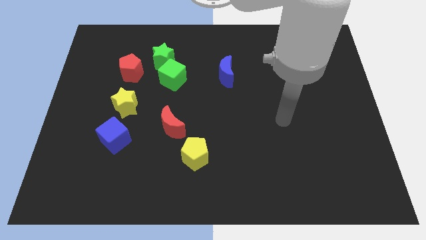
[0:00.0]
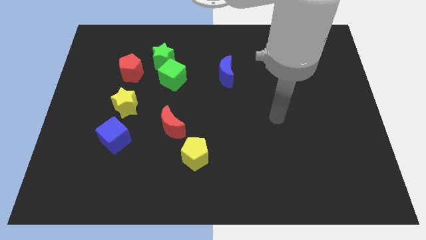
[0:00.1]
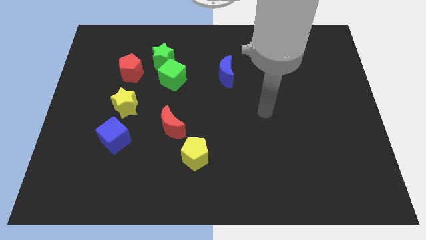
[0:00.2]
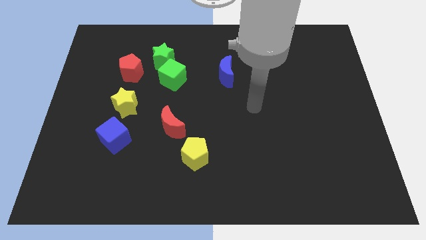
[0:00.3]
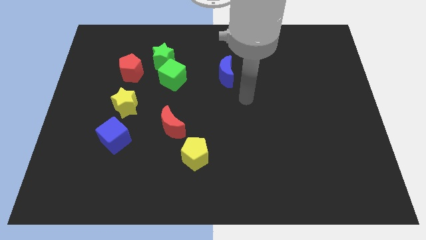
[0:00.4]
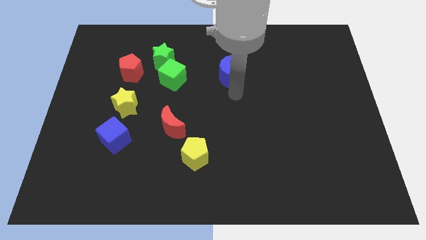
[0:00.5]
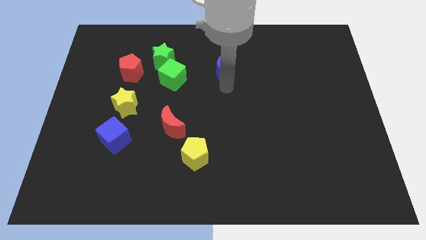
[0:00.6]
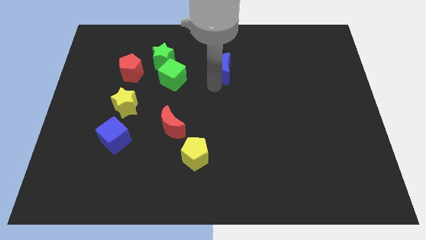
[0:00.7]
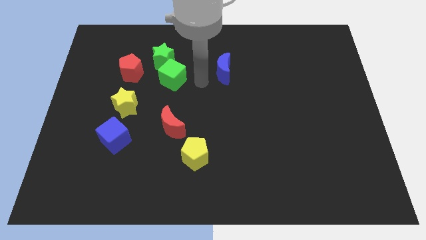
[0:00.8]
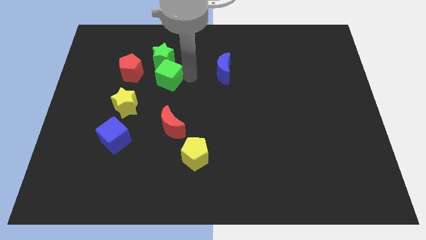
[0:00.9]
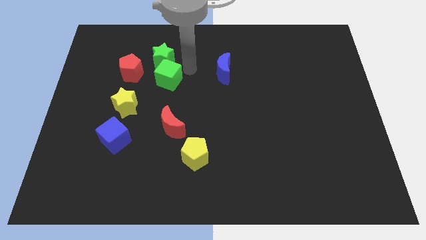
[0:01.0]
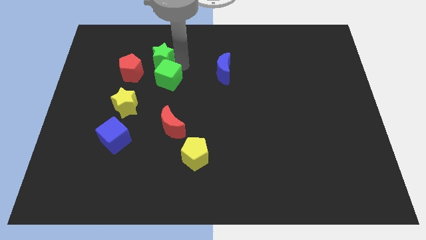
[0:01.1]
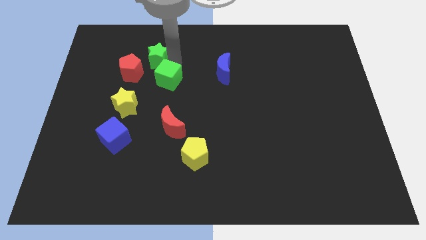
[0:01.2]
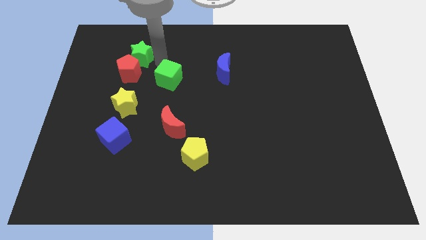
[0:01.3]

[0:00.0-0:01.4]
separate the green cube from the green star

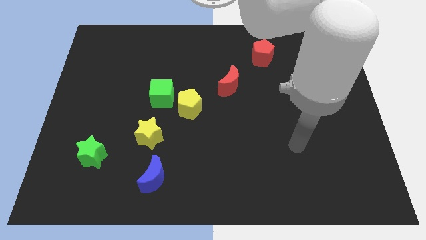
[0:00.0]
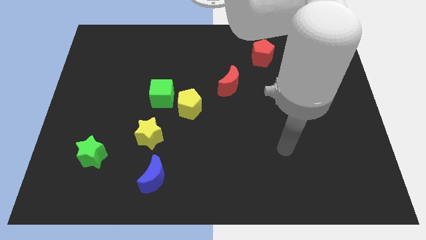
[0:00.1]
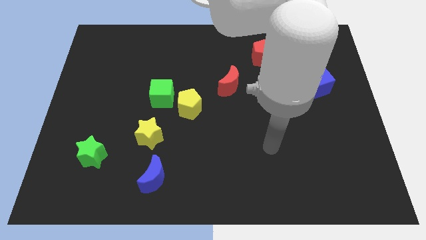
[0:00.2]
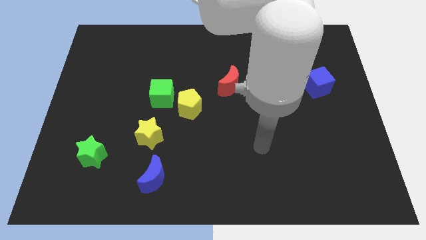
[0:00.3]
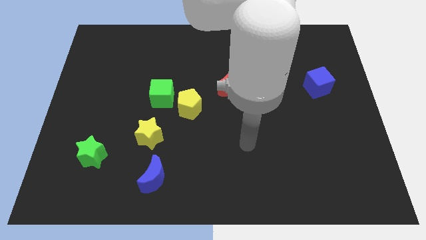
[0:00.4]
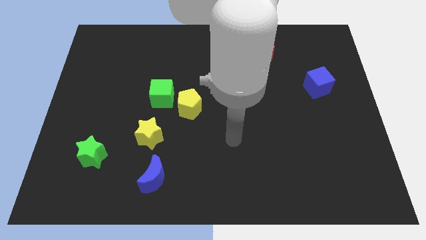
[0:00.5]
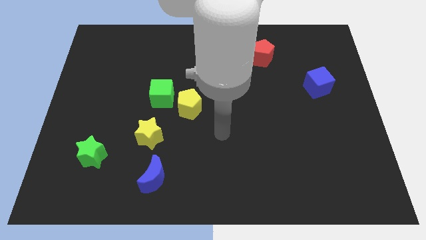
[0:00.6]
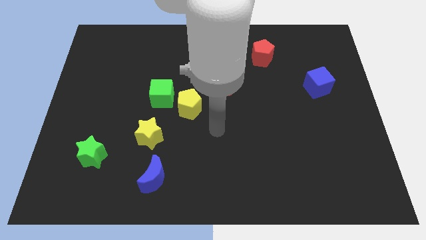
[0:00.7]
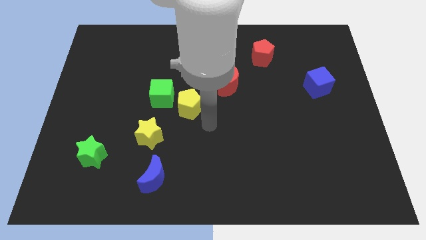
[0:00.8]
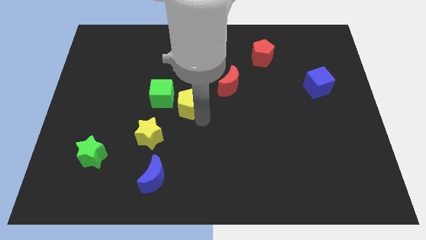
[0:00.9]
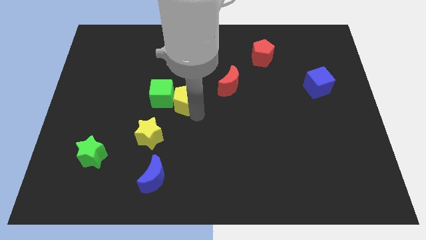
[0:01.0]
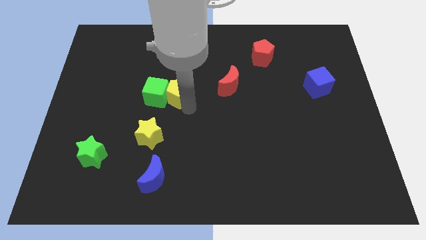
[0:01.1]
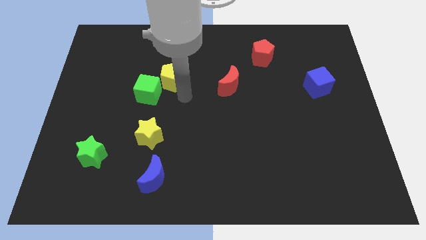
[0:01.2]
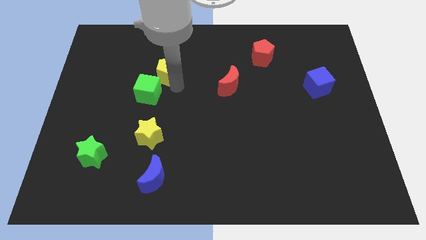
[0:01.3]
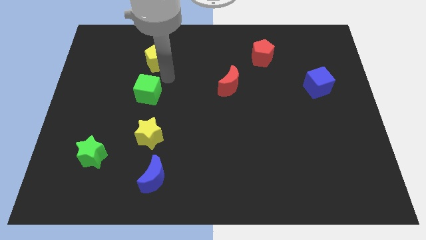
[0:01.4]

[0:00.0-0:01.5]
move the green cube away from the yellow pentagon

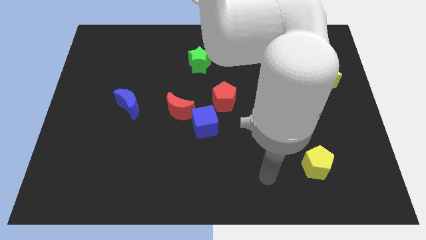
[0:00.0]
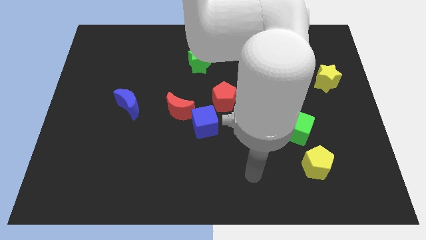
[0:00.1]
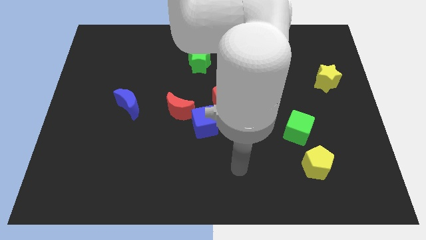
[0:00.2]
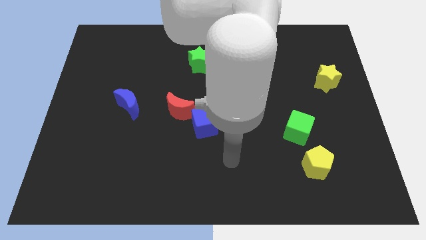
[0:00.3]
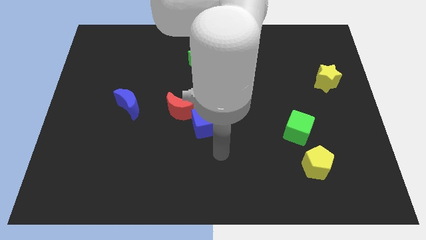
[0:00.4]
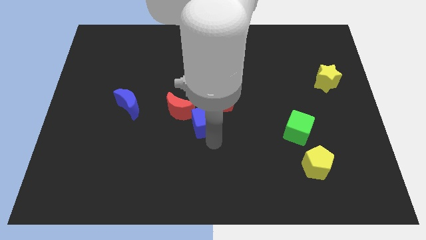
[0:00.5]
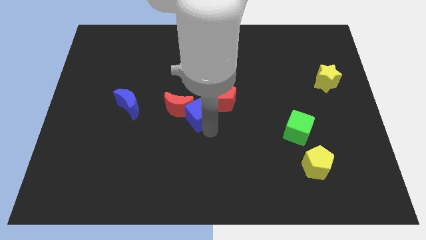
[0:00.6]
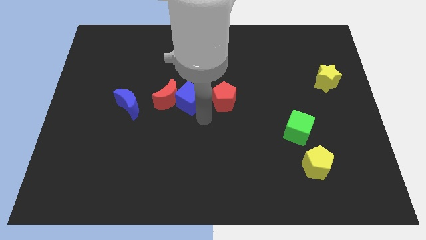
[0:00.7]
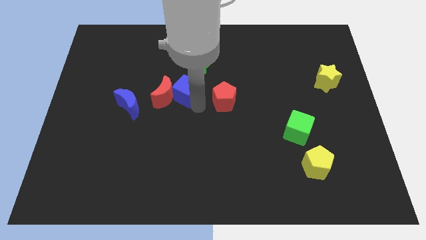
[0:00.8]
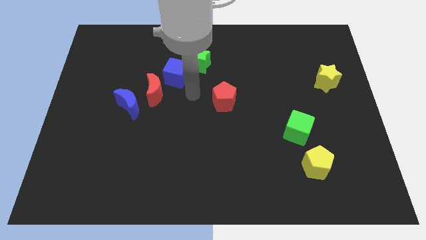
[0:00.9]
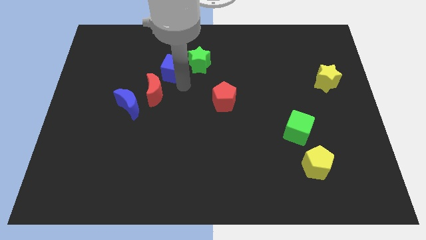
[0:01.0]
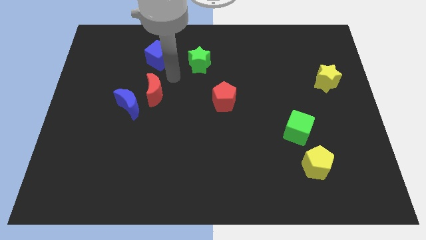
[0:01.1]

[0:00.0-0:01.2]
separate the red moon from the blue cube

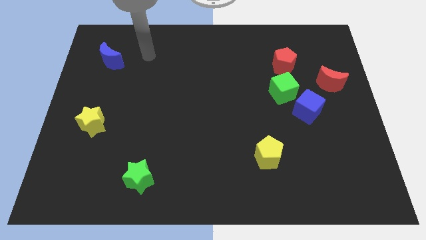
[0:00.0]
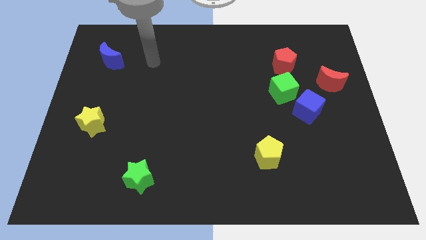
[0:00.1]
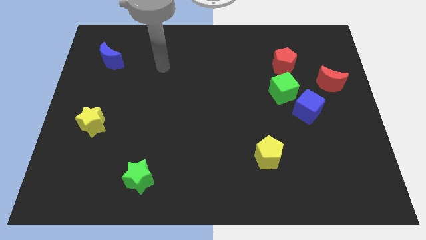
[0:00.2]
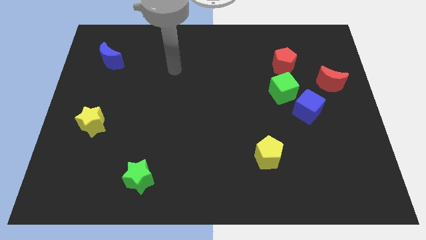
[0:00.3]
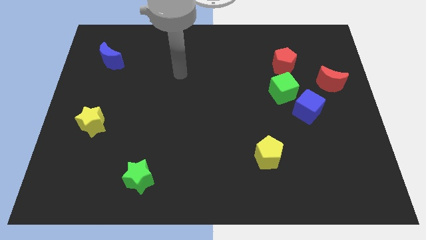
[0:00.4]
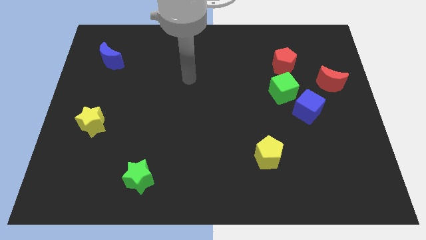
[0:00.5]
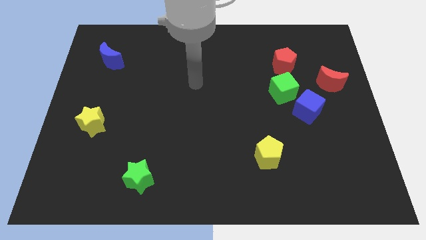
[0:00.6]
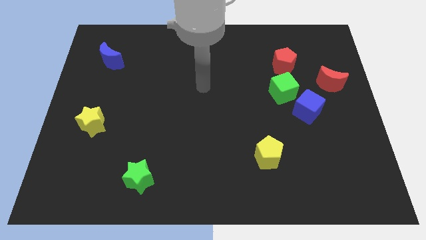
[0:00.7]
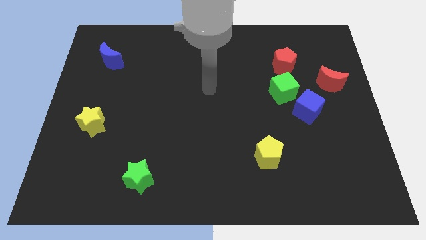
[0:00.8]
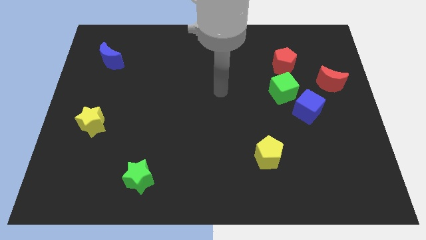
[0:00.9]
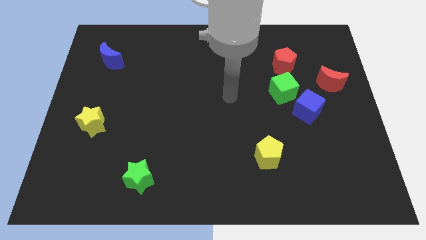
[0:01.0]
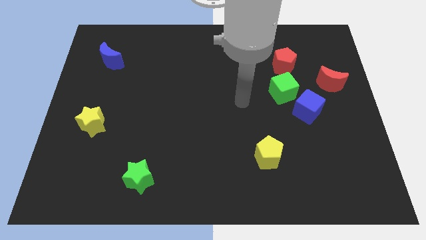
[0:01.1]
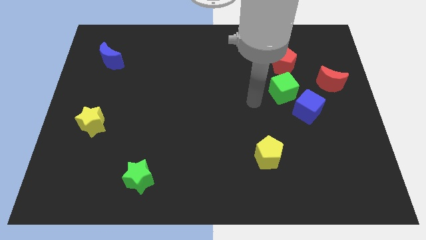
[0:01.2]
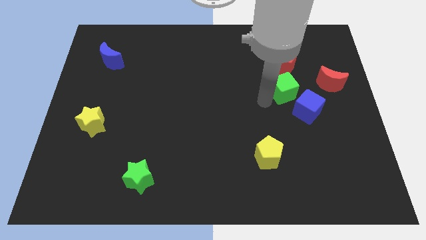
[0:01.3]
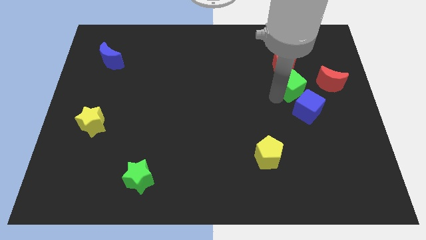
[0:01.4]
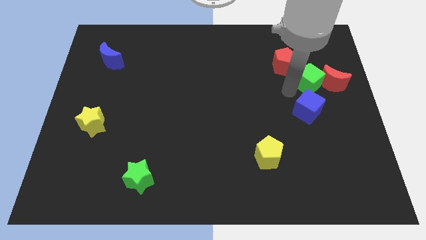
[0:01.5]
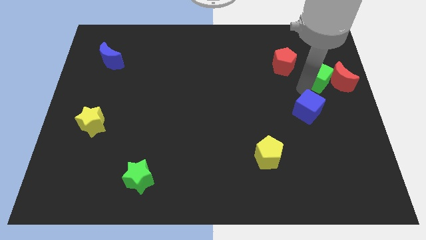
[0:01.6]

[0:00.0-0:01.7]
separate the blue cube from the green cube

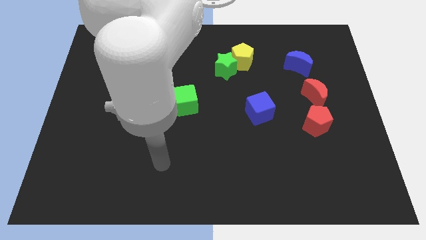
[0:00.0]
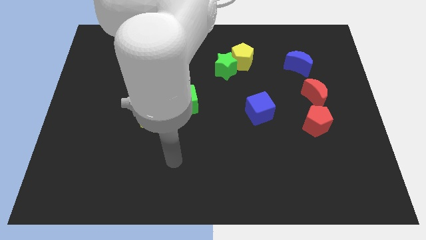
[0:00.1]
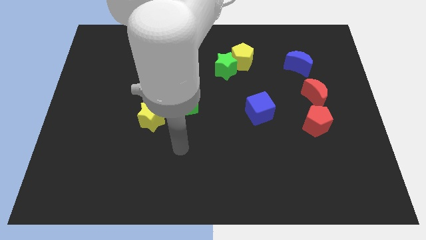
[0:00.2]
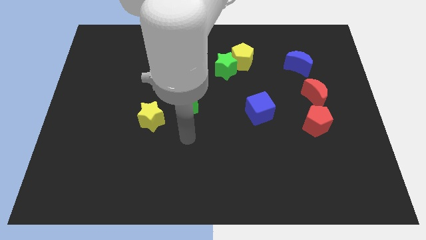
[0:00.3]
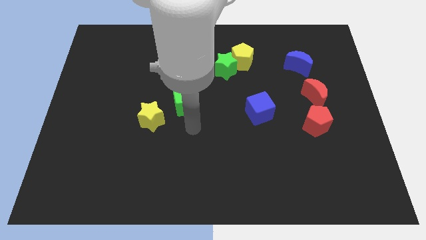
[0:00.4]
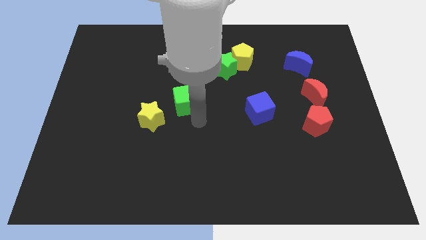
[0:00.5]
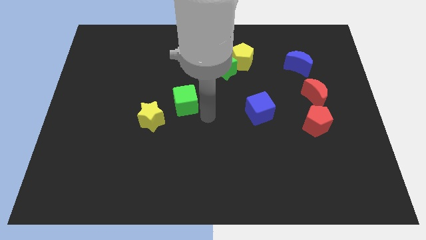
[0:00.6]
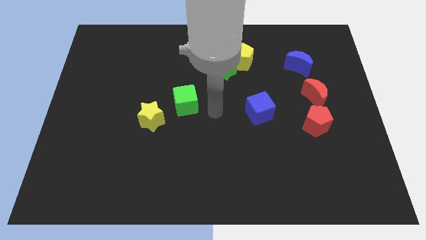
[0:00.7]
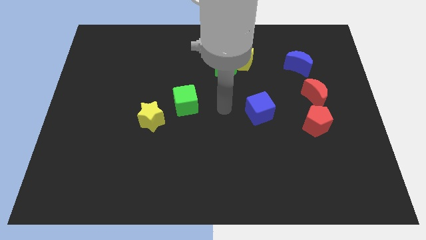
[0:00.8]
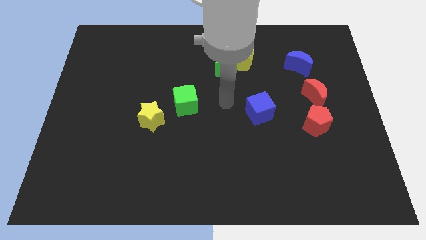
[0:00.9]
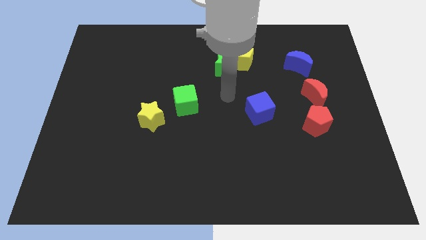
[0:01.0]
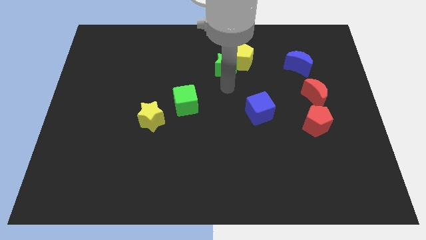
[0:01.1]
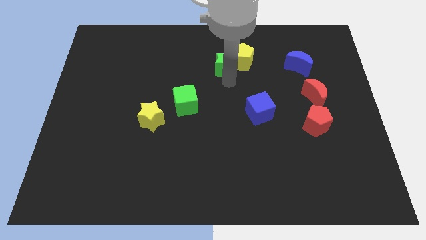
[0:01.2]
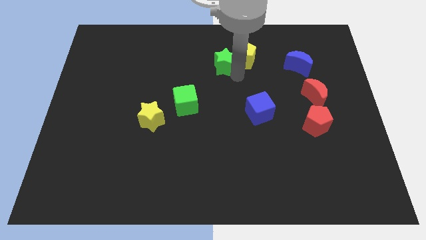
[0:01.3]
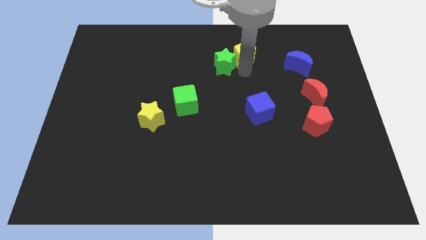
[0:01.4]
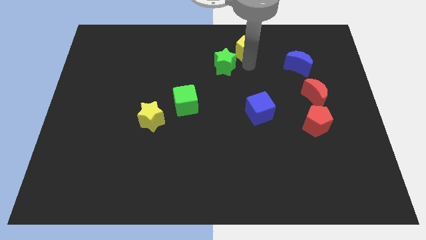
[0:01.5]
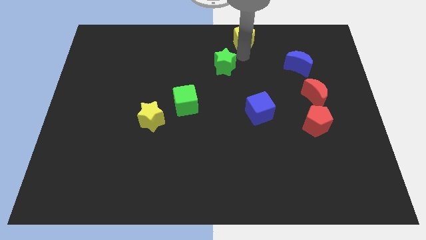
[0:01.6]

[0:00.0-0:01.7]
separate the green star from the yellow pentagon

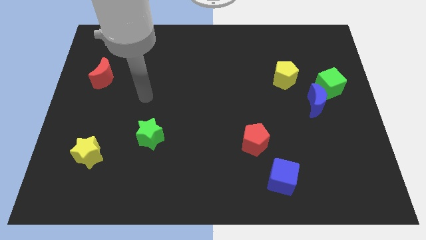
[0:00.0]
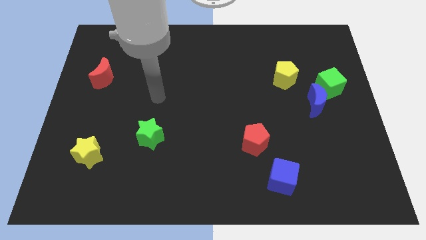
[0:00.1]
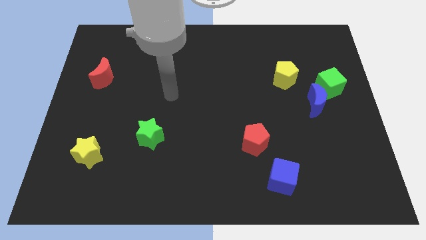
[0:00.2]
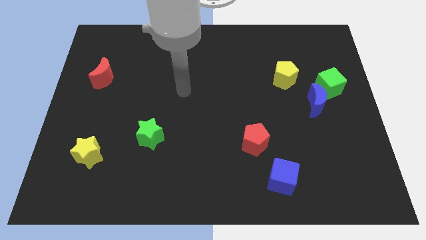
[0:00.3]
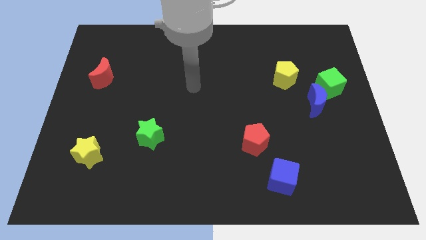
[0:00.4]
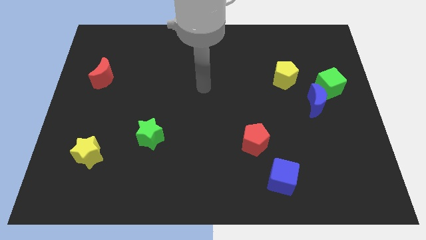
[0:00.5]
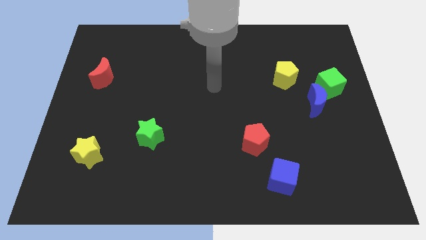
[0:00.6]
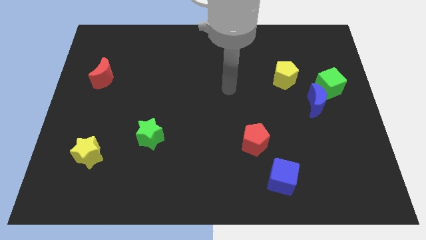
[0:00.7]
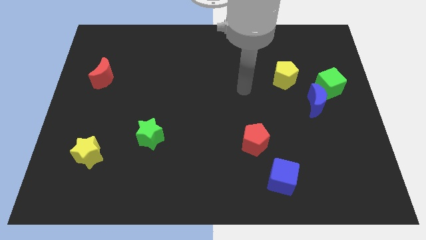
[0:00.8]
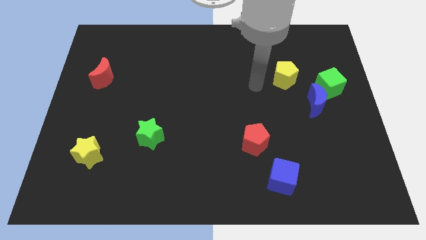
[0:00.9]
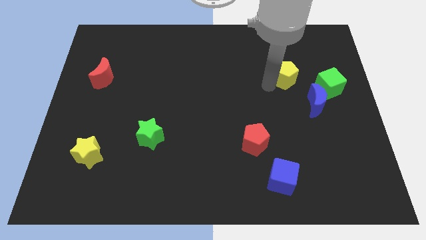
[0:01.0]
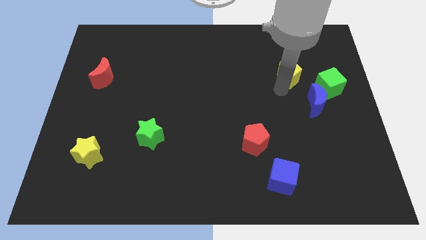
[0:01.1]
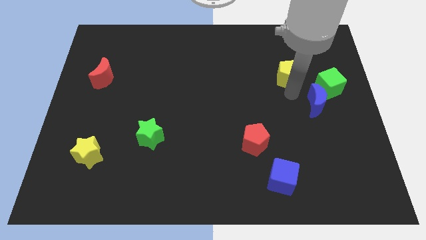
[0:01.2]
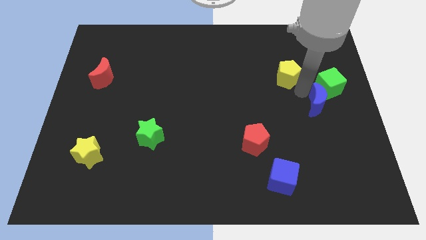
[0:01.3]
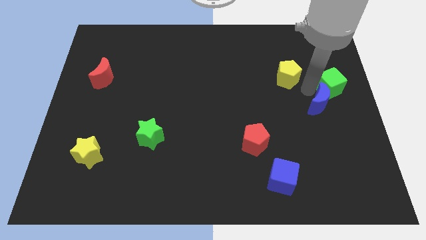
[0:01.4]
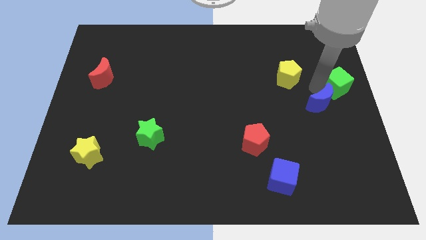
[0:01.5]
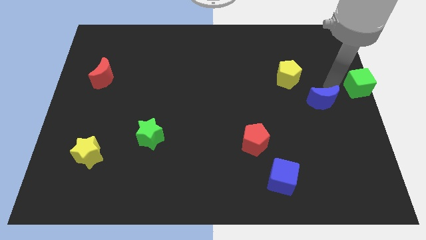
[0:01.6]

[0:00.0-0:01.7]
separate the blue moon from the green cube

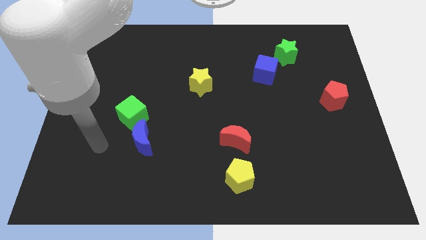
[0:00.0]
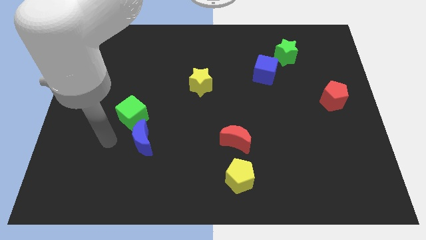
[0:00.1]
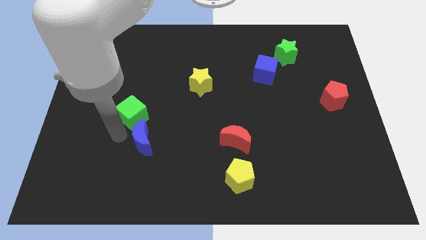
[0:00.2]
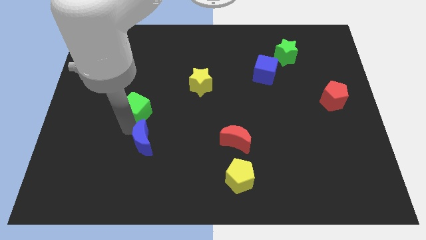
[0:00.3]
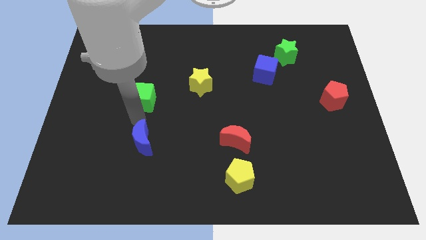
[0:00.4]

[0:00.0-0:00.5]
pull the blue moon apart from the green cube
